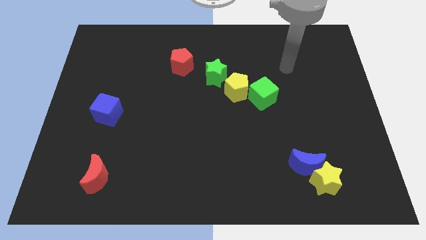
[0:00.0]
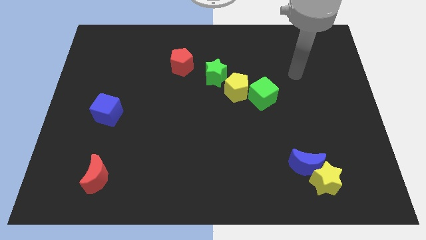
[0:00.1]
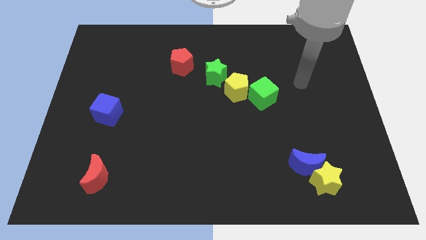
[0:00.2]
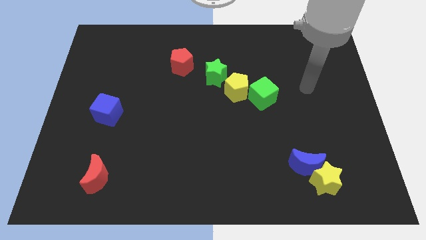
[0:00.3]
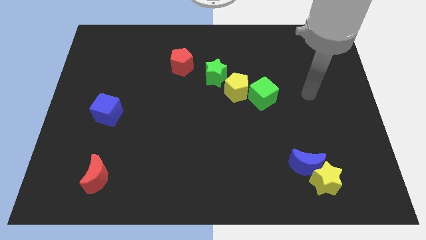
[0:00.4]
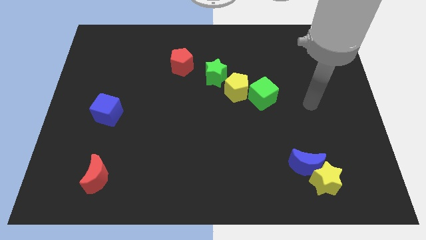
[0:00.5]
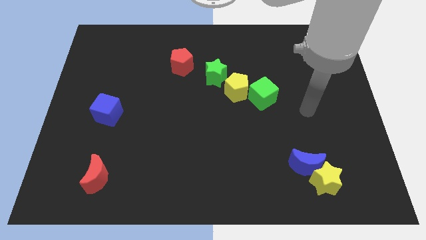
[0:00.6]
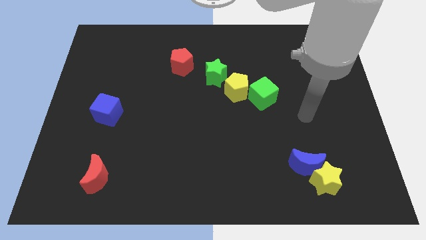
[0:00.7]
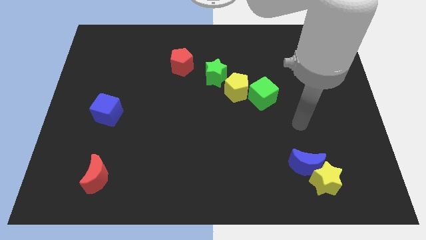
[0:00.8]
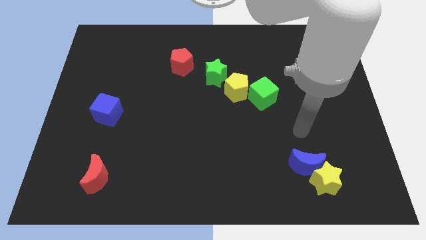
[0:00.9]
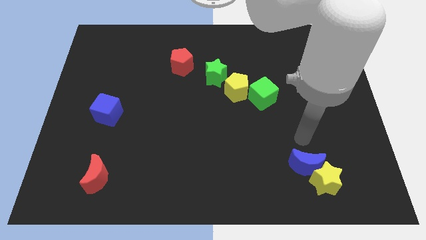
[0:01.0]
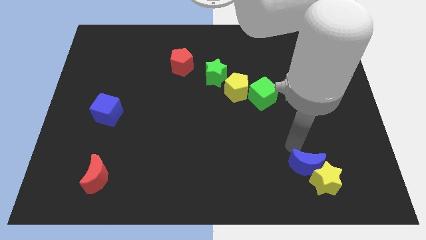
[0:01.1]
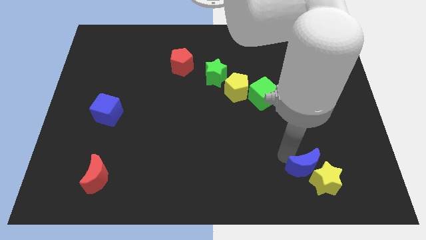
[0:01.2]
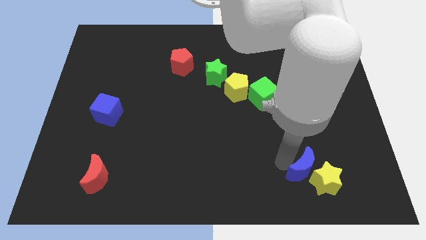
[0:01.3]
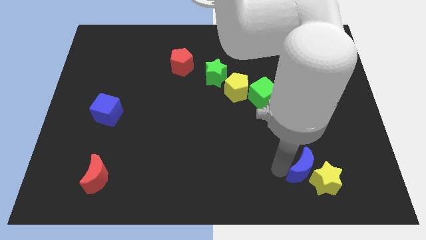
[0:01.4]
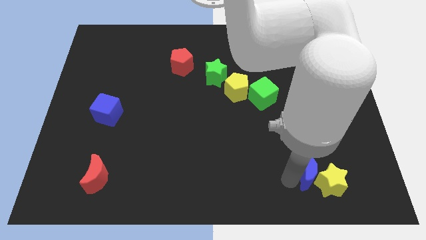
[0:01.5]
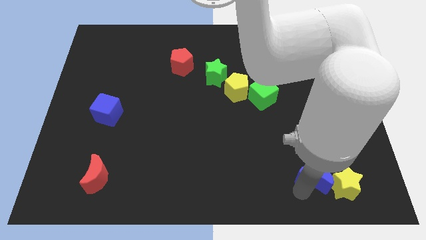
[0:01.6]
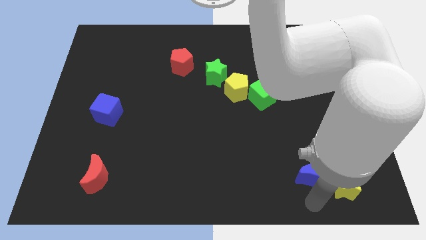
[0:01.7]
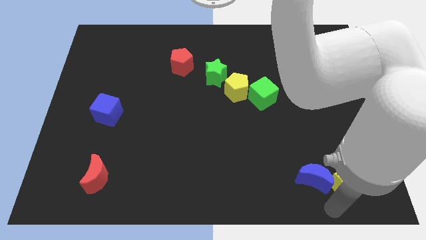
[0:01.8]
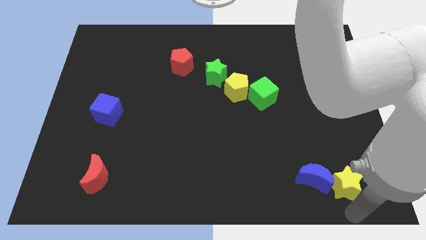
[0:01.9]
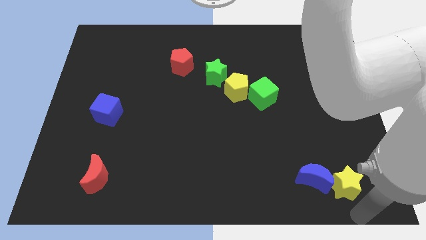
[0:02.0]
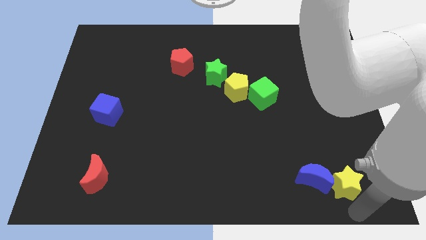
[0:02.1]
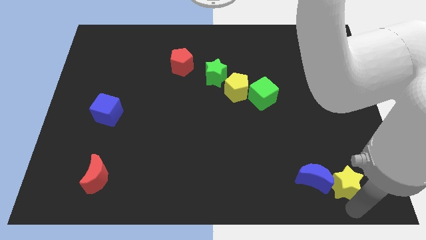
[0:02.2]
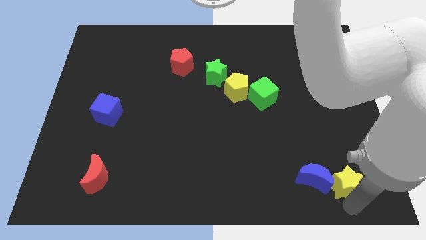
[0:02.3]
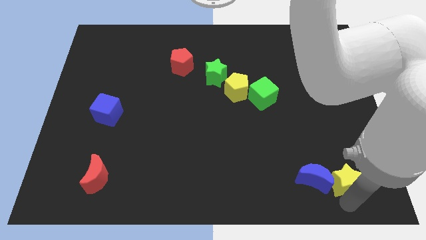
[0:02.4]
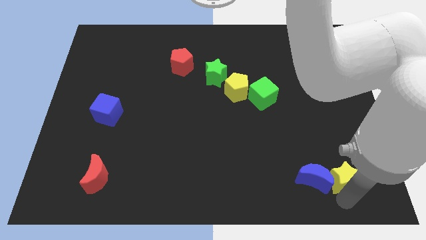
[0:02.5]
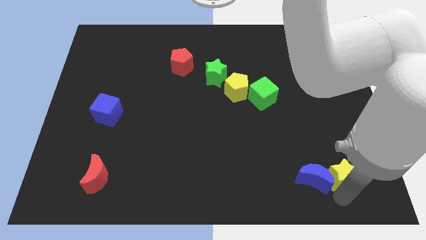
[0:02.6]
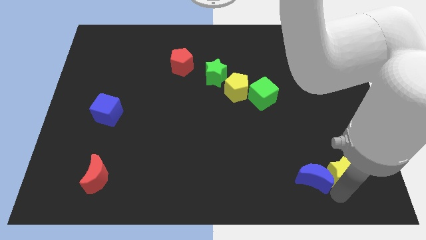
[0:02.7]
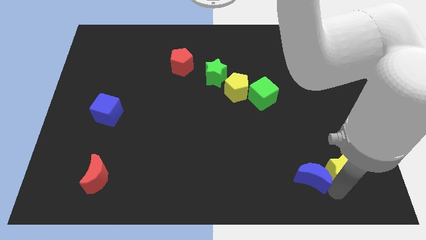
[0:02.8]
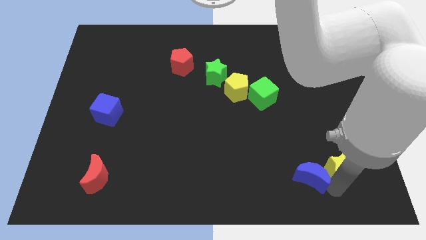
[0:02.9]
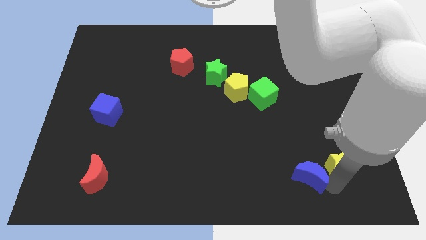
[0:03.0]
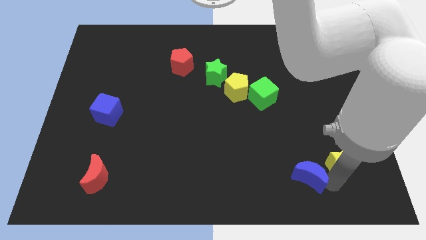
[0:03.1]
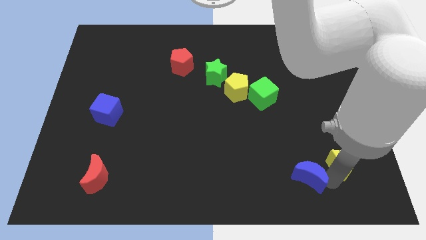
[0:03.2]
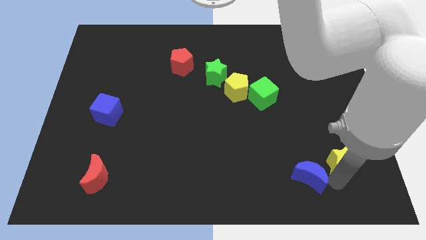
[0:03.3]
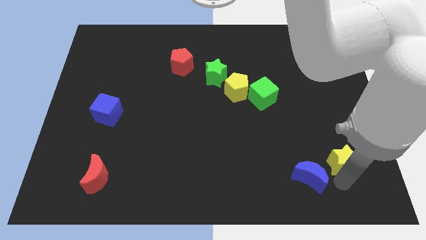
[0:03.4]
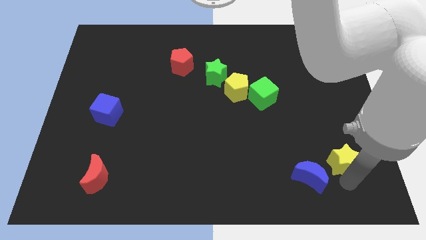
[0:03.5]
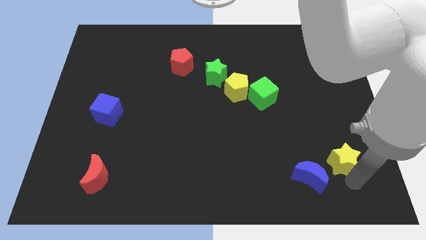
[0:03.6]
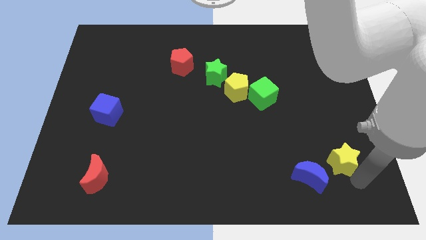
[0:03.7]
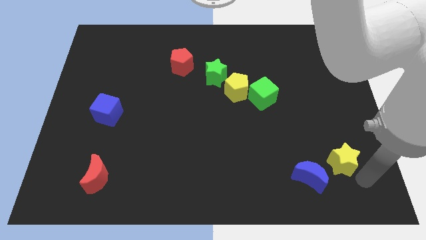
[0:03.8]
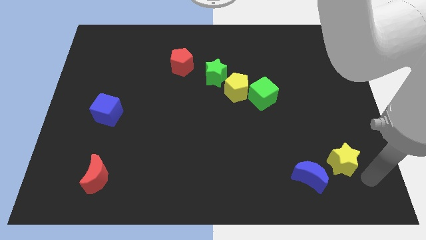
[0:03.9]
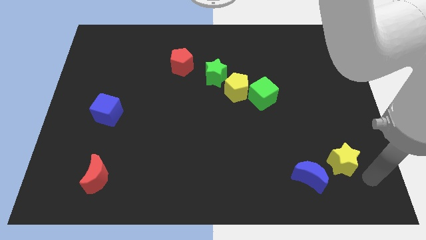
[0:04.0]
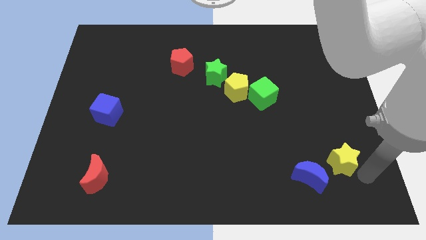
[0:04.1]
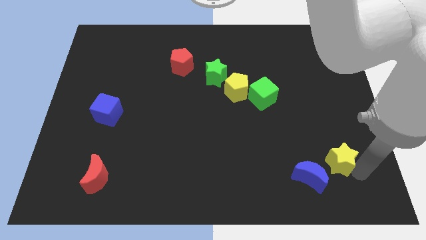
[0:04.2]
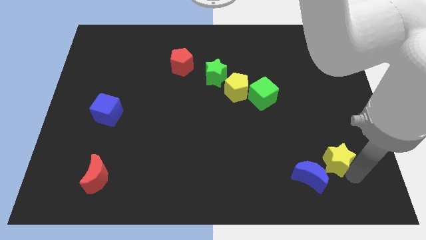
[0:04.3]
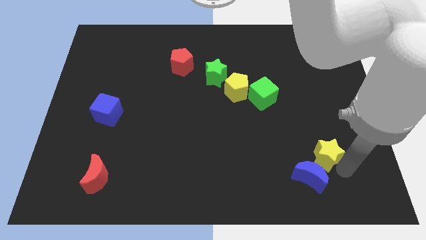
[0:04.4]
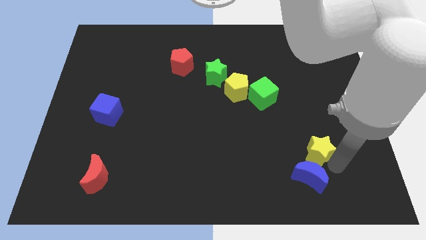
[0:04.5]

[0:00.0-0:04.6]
slightly slide the yellow star upwards

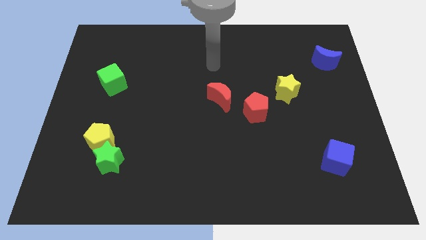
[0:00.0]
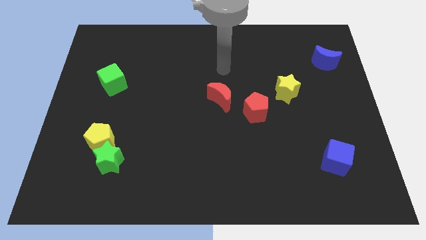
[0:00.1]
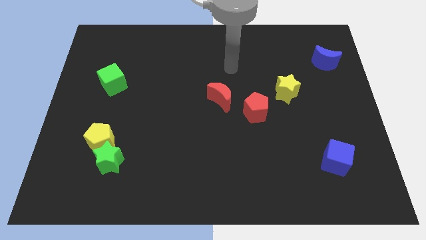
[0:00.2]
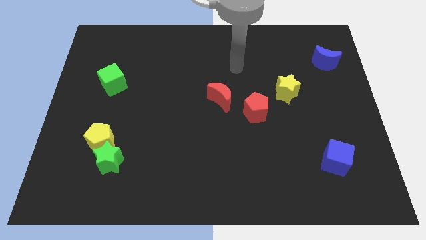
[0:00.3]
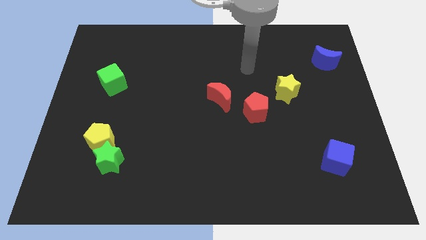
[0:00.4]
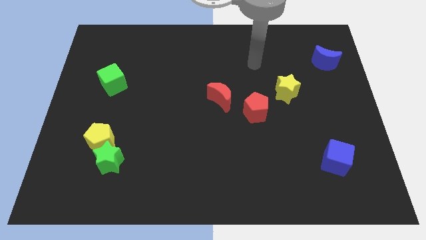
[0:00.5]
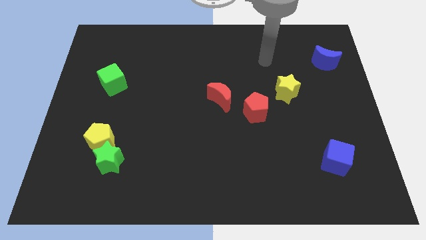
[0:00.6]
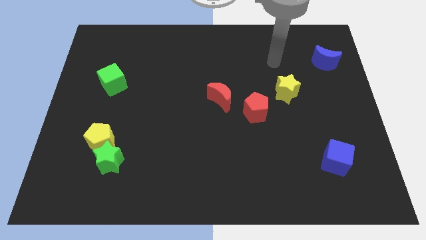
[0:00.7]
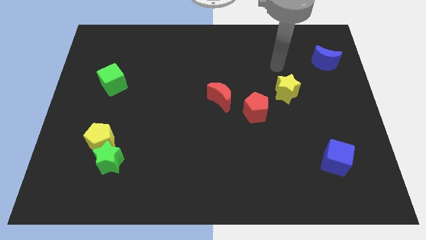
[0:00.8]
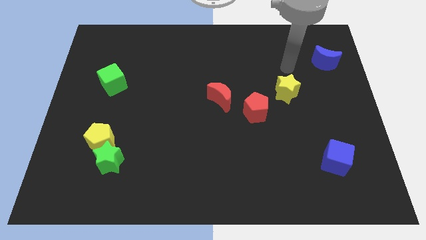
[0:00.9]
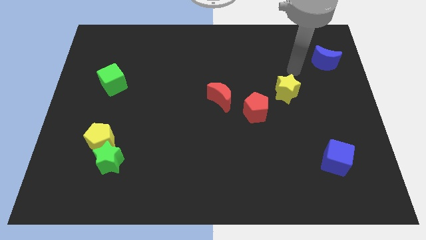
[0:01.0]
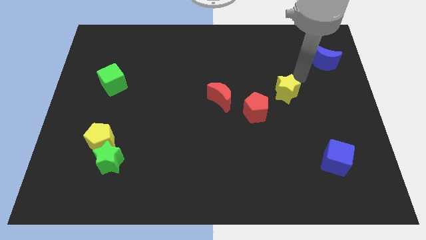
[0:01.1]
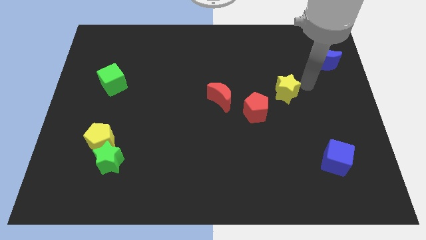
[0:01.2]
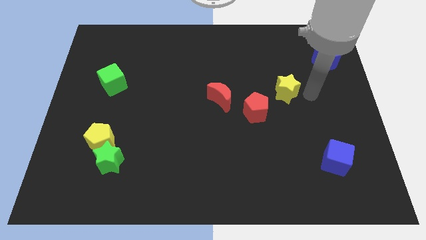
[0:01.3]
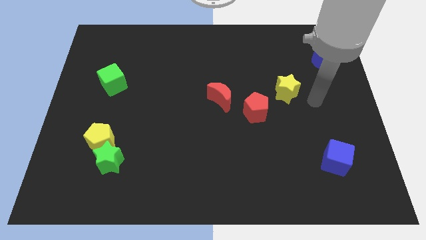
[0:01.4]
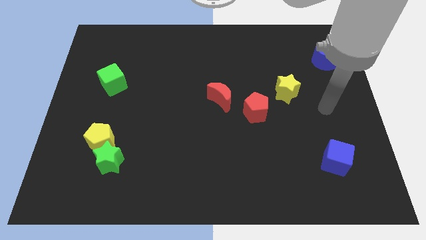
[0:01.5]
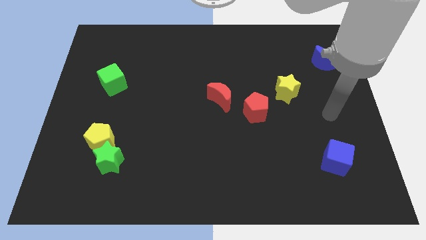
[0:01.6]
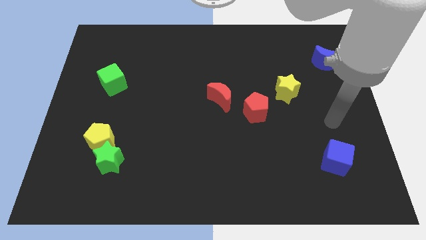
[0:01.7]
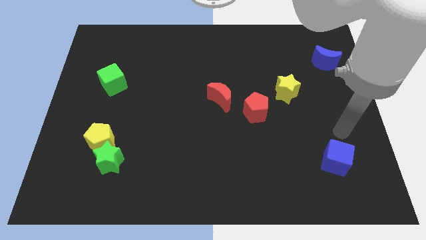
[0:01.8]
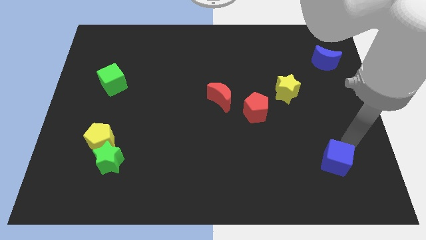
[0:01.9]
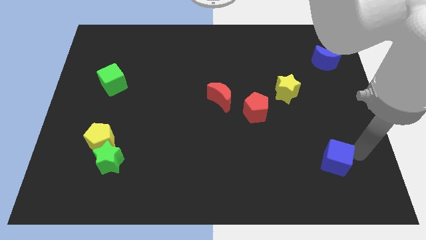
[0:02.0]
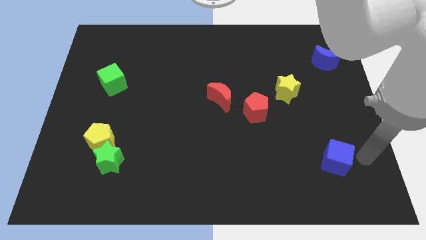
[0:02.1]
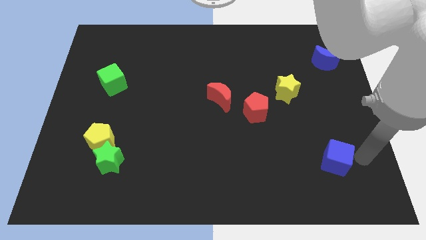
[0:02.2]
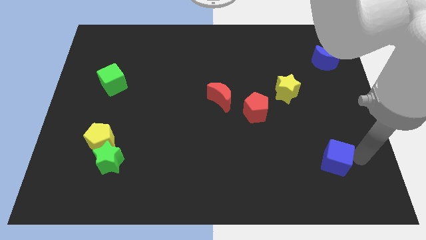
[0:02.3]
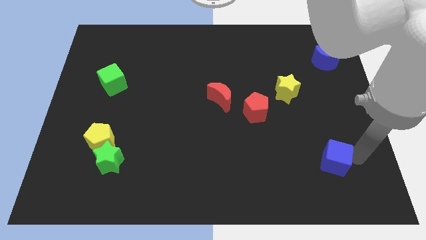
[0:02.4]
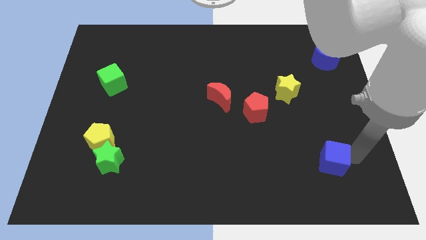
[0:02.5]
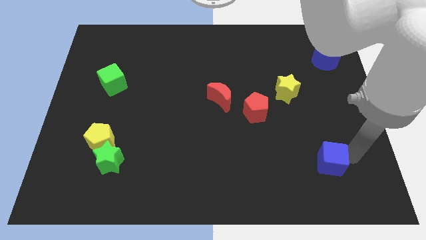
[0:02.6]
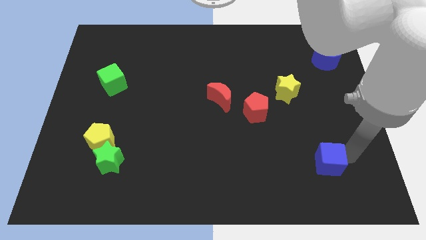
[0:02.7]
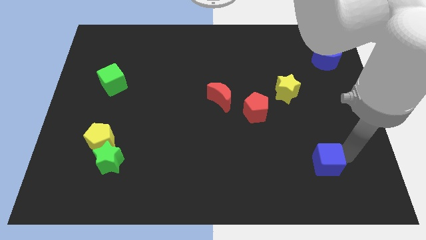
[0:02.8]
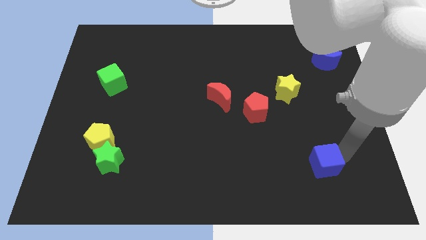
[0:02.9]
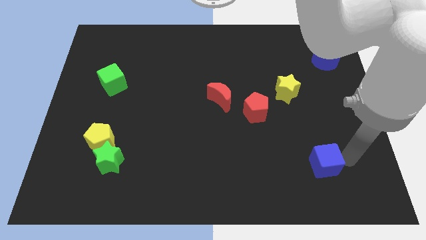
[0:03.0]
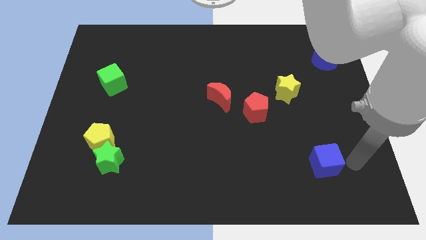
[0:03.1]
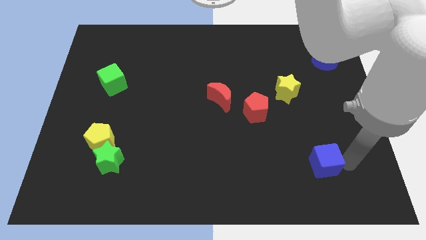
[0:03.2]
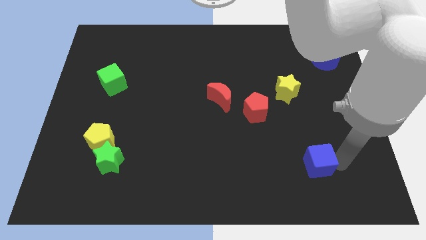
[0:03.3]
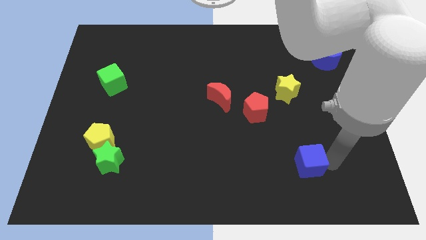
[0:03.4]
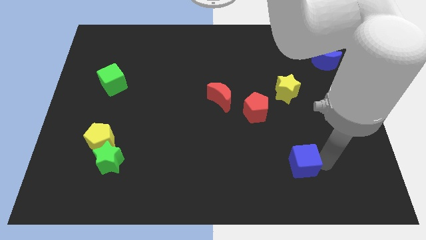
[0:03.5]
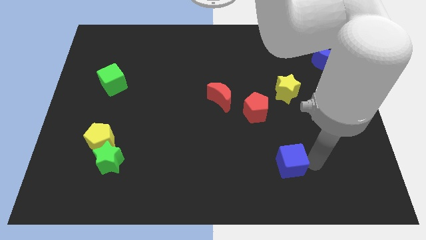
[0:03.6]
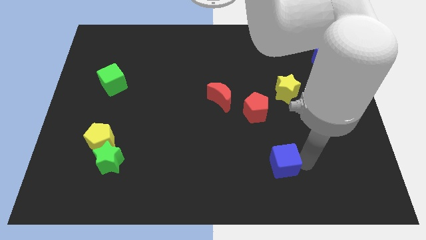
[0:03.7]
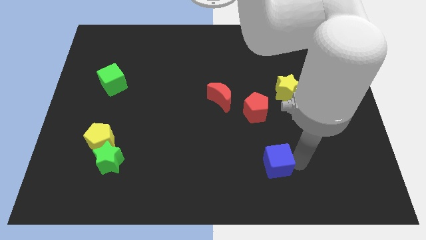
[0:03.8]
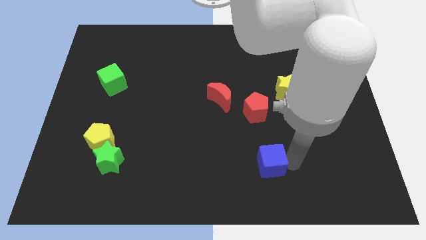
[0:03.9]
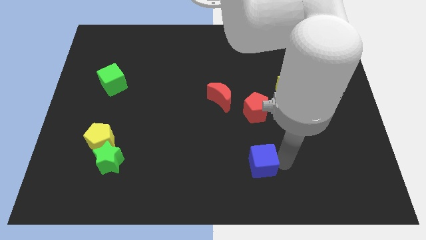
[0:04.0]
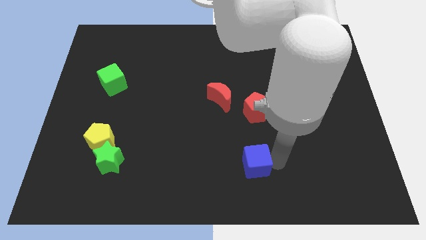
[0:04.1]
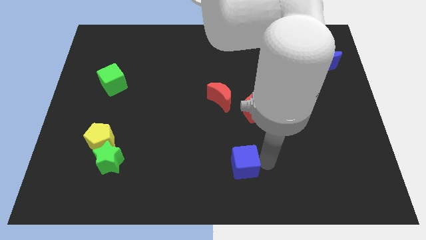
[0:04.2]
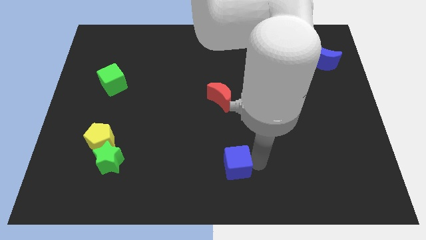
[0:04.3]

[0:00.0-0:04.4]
move the blue cube left
